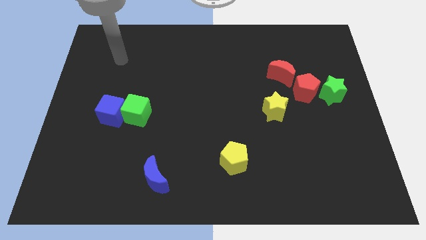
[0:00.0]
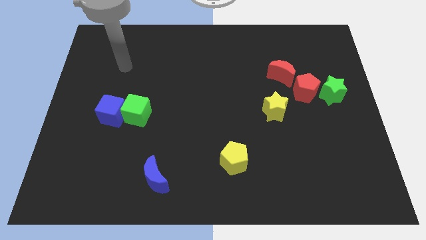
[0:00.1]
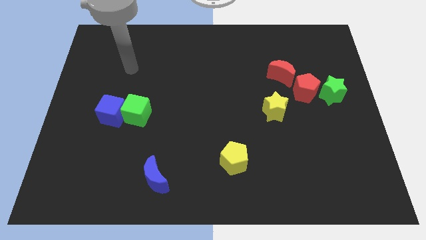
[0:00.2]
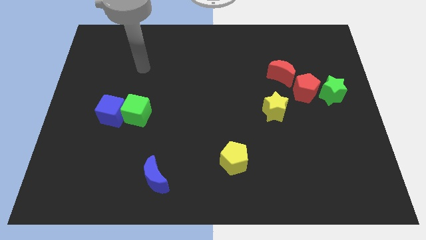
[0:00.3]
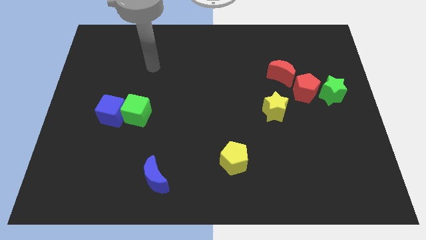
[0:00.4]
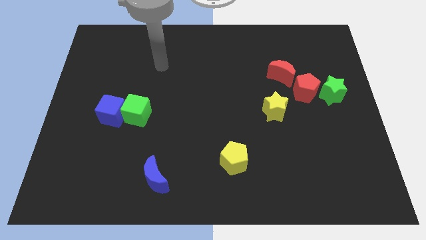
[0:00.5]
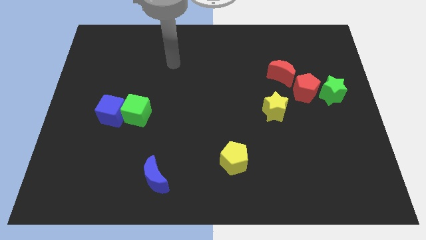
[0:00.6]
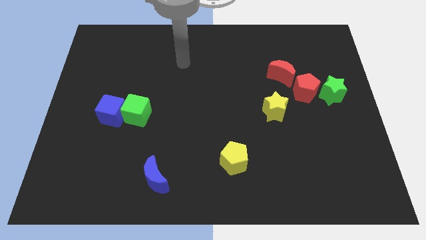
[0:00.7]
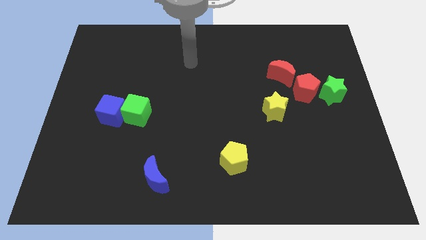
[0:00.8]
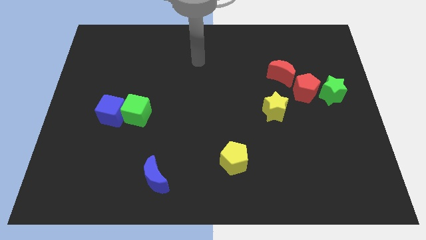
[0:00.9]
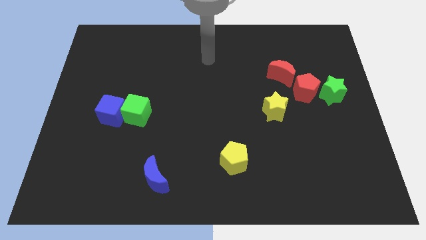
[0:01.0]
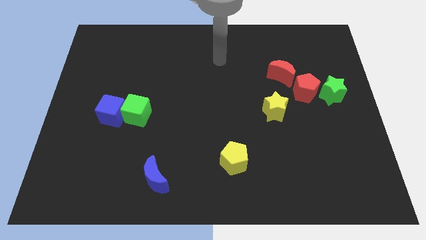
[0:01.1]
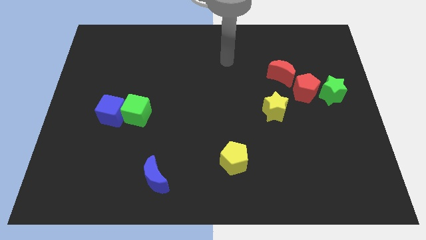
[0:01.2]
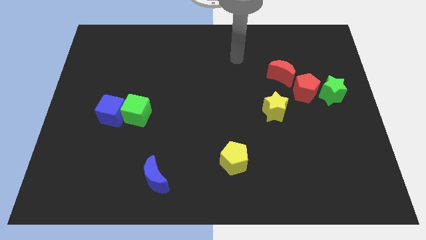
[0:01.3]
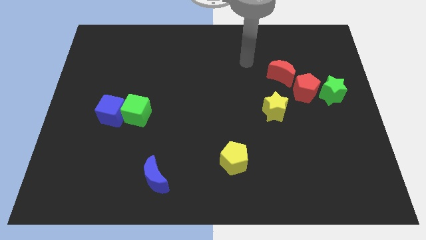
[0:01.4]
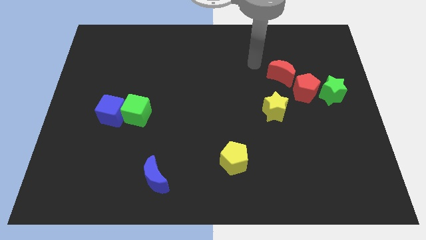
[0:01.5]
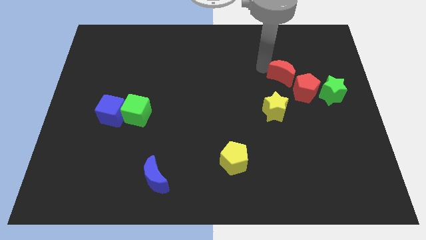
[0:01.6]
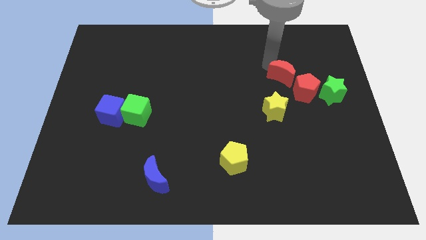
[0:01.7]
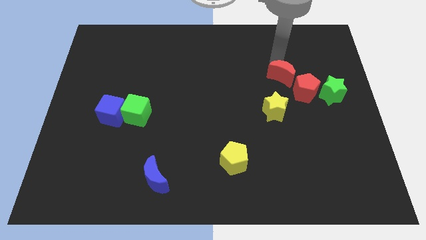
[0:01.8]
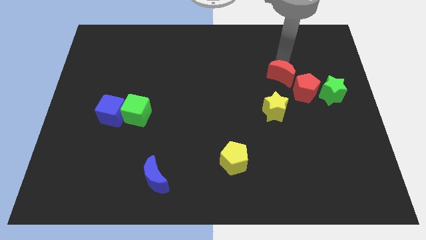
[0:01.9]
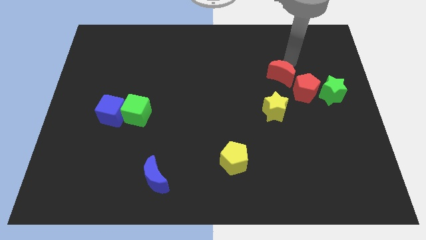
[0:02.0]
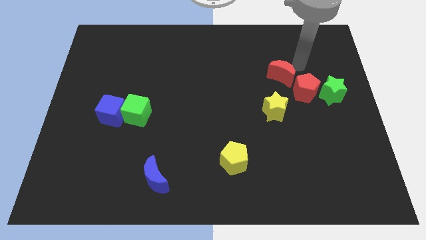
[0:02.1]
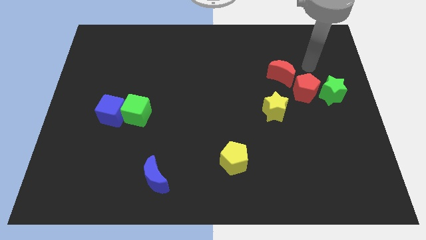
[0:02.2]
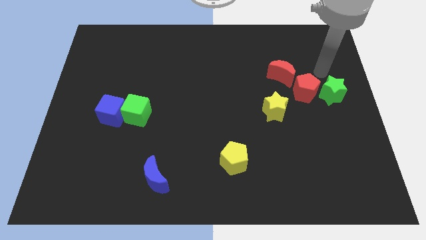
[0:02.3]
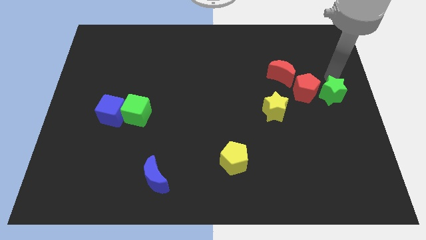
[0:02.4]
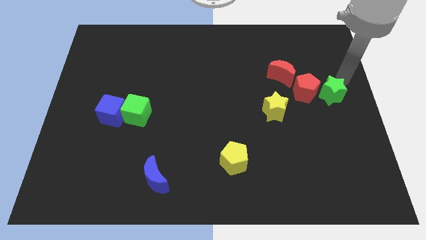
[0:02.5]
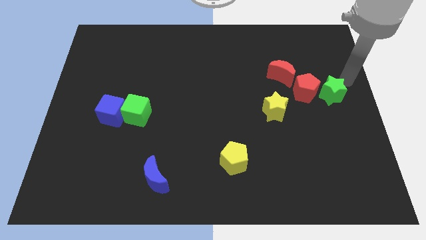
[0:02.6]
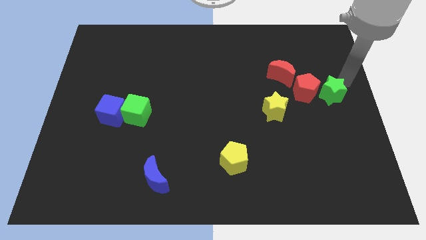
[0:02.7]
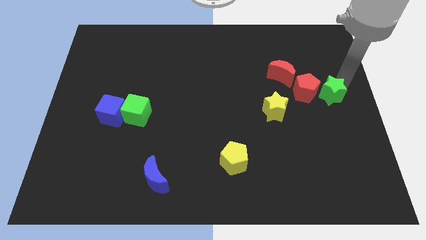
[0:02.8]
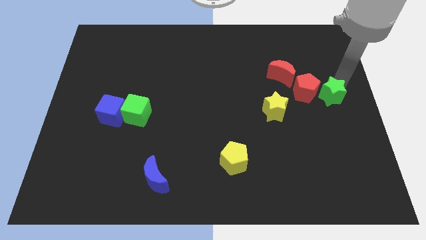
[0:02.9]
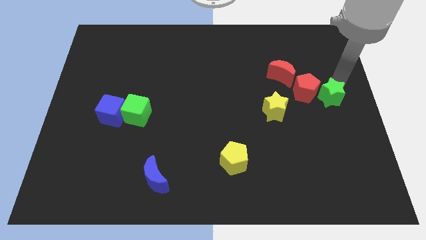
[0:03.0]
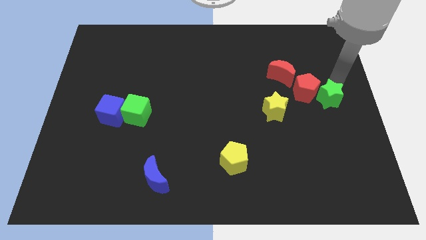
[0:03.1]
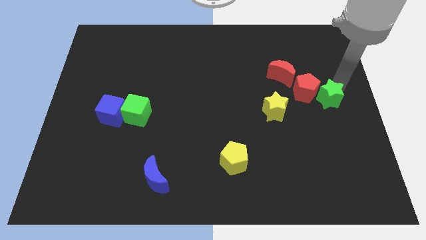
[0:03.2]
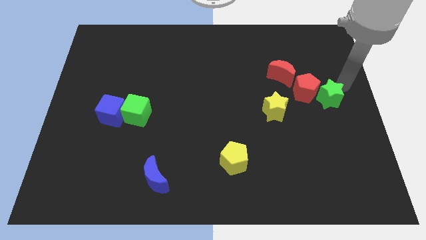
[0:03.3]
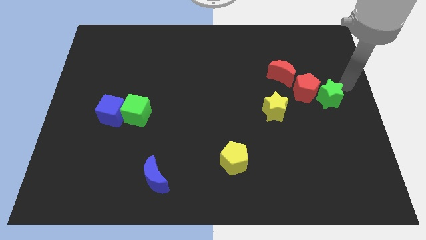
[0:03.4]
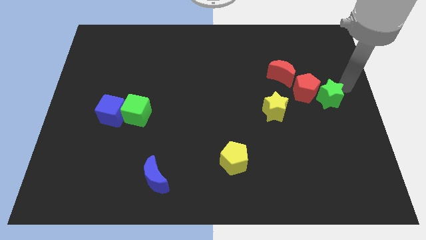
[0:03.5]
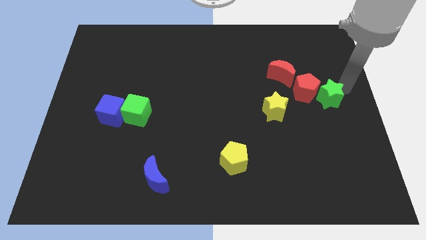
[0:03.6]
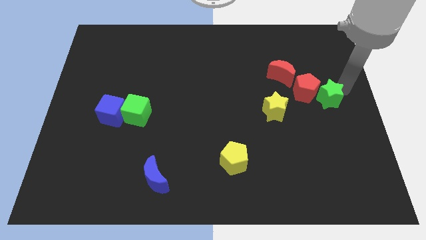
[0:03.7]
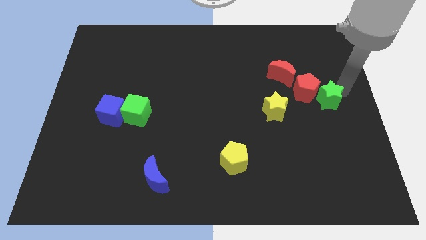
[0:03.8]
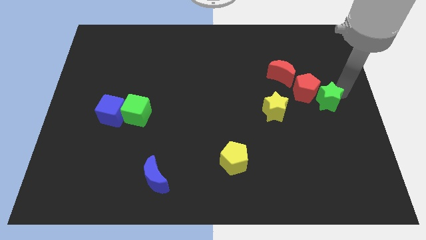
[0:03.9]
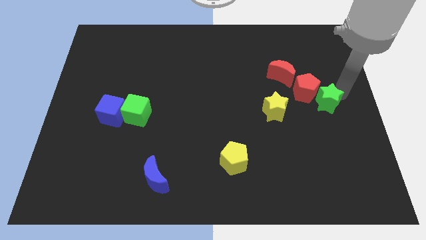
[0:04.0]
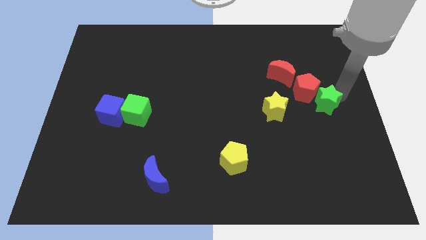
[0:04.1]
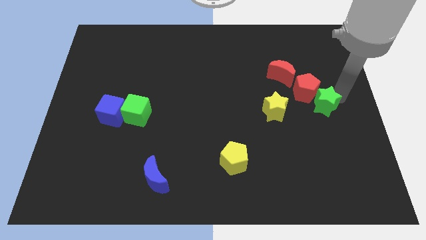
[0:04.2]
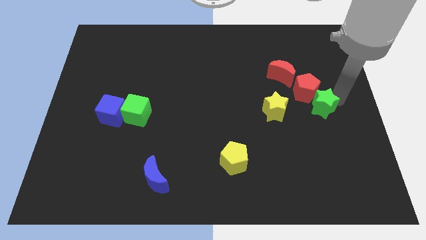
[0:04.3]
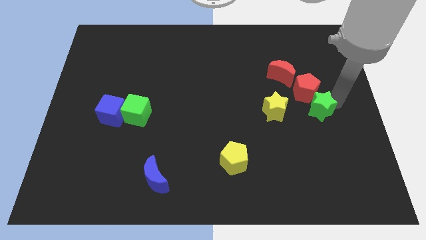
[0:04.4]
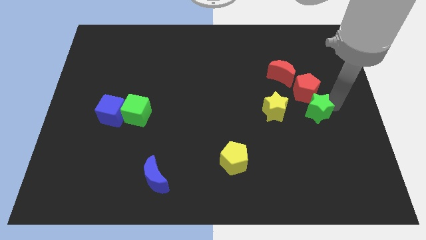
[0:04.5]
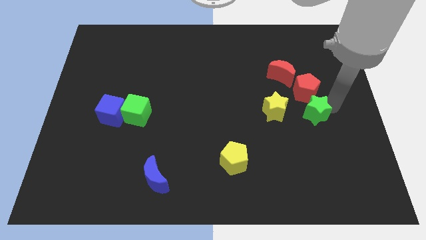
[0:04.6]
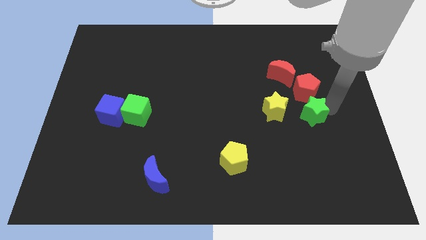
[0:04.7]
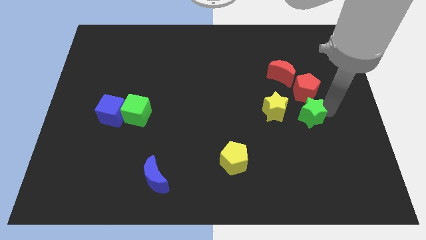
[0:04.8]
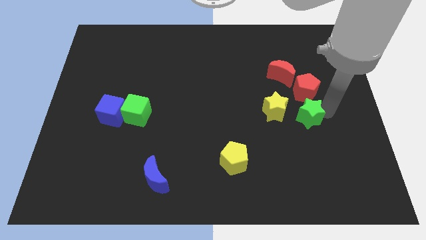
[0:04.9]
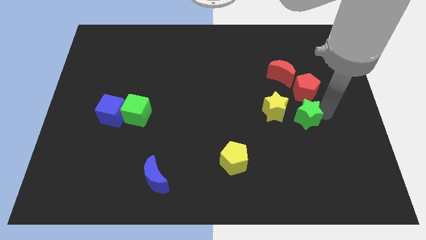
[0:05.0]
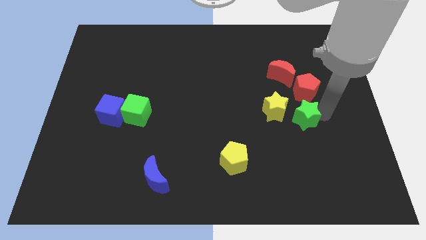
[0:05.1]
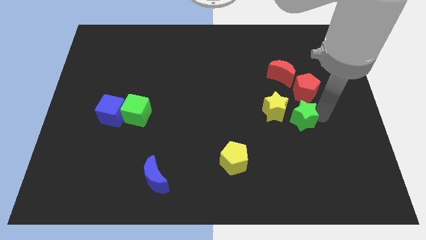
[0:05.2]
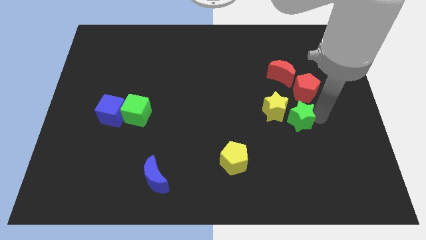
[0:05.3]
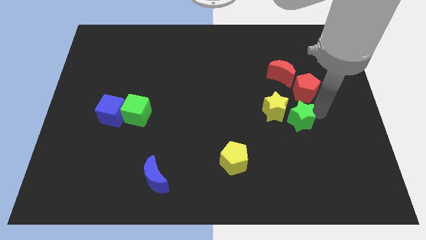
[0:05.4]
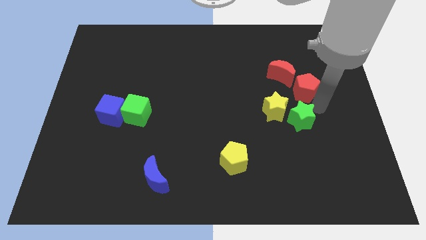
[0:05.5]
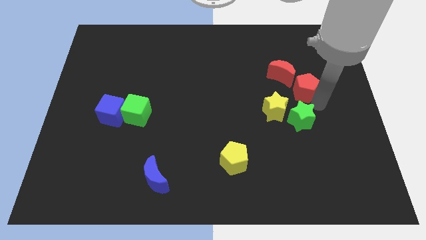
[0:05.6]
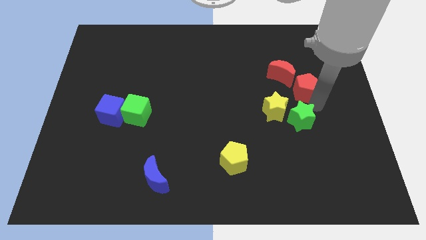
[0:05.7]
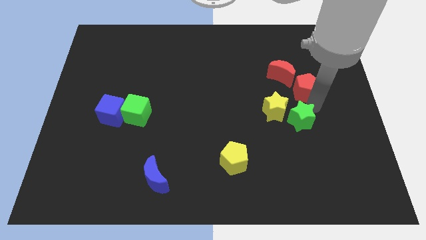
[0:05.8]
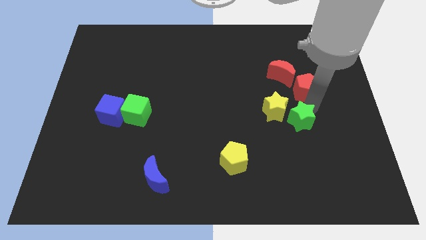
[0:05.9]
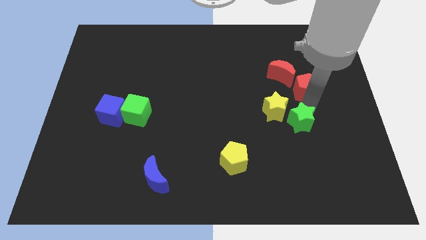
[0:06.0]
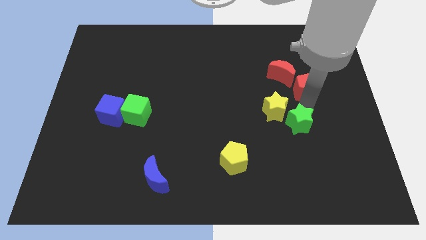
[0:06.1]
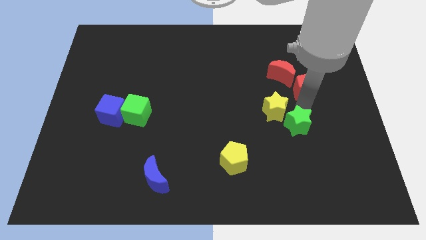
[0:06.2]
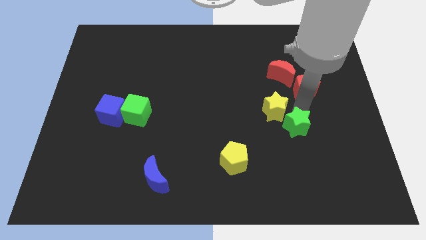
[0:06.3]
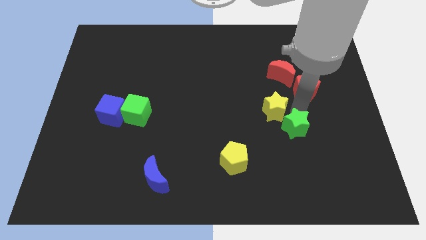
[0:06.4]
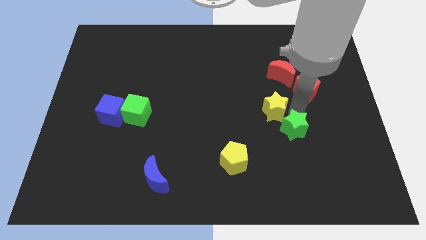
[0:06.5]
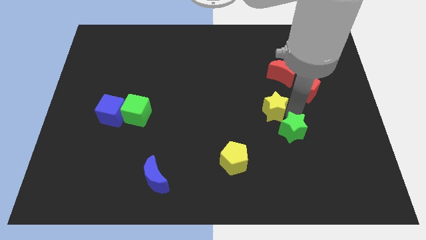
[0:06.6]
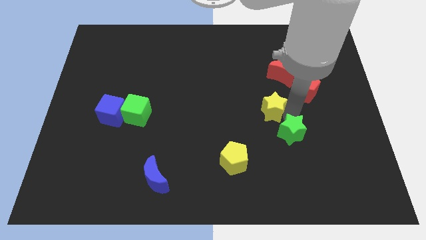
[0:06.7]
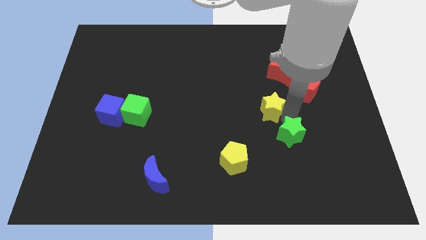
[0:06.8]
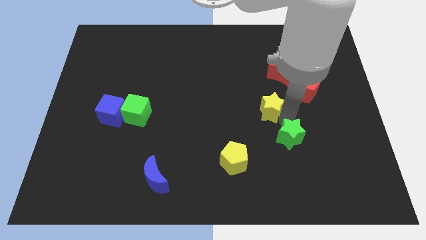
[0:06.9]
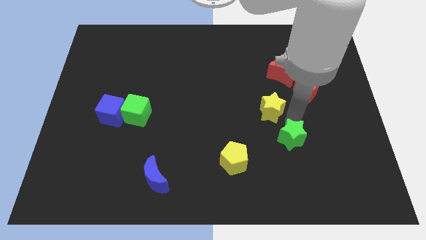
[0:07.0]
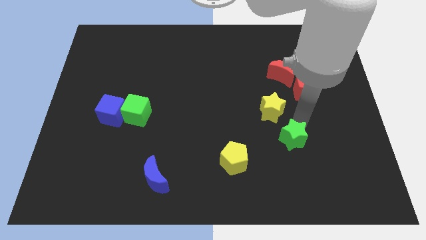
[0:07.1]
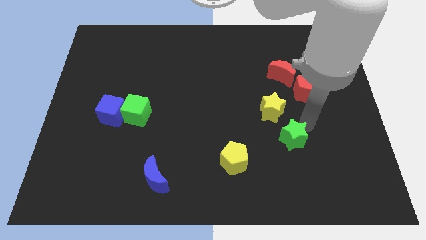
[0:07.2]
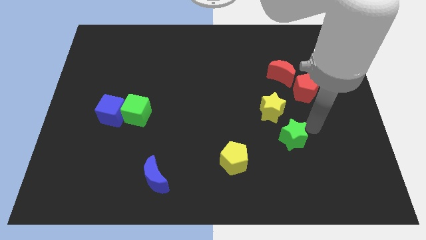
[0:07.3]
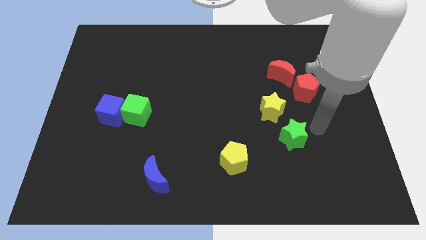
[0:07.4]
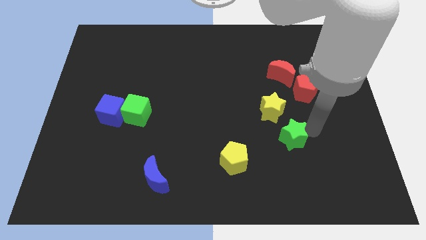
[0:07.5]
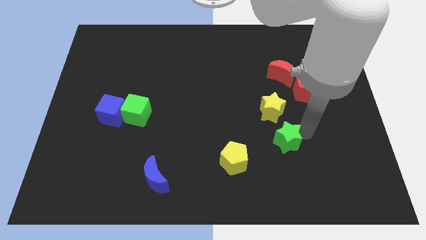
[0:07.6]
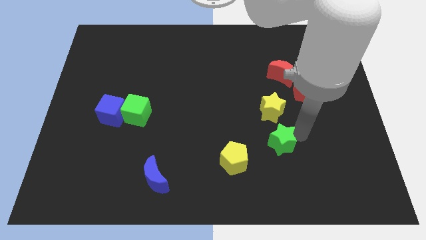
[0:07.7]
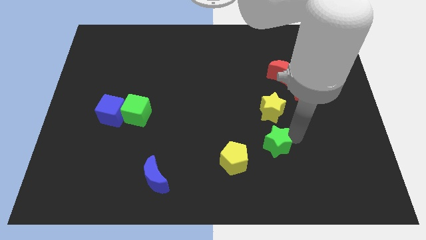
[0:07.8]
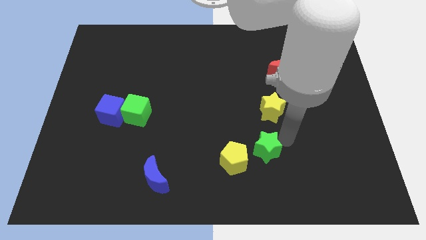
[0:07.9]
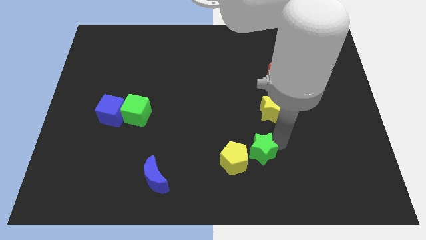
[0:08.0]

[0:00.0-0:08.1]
slide the green star close to the yellow pentagon
